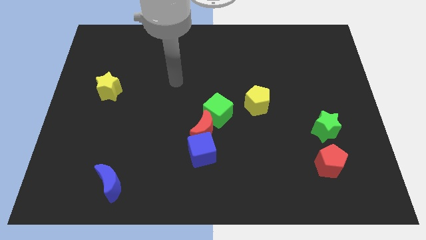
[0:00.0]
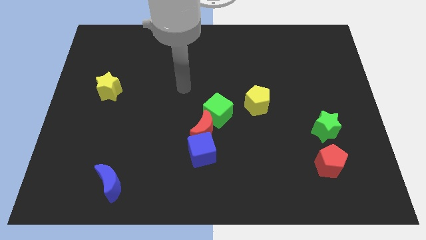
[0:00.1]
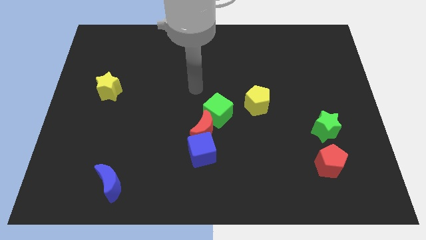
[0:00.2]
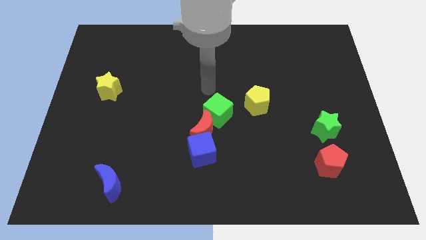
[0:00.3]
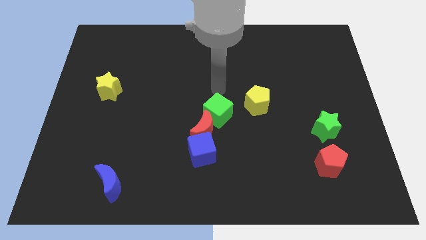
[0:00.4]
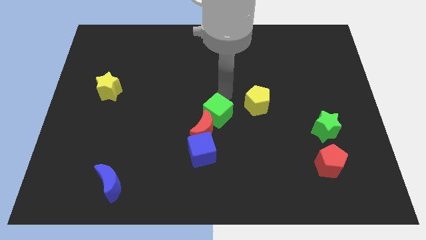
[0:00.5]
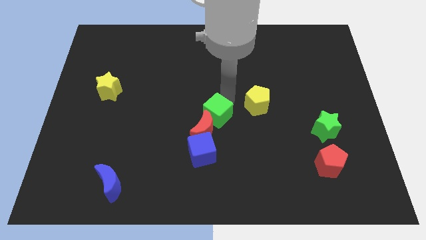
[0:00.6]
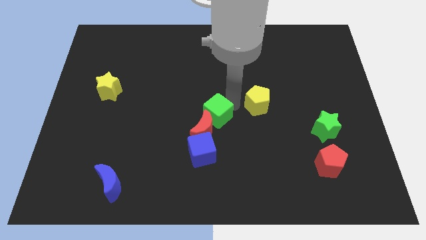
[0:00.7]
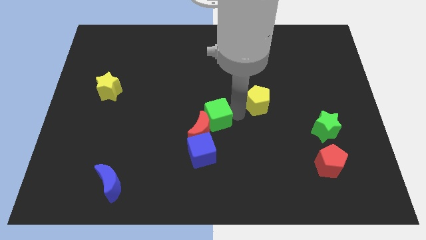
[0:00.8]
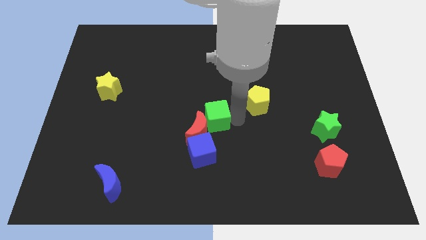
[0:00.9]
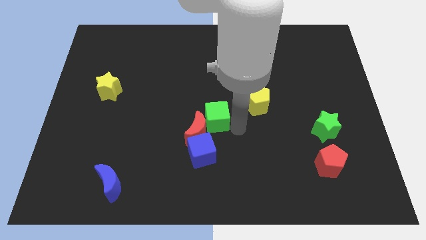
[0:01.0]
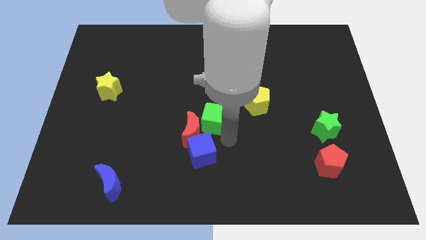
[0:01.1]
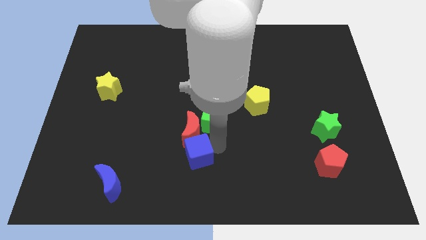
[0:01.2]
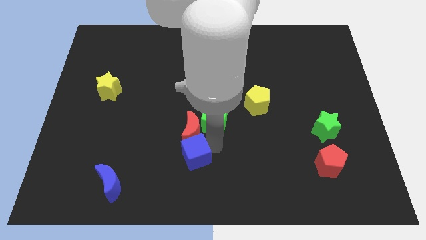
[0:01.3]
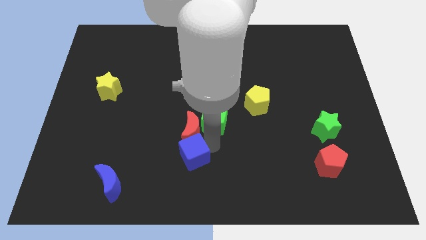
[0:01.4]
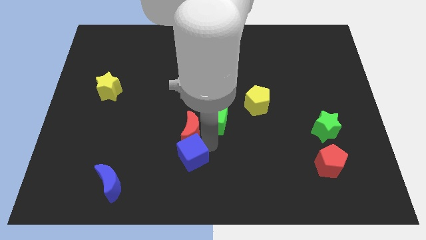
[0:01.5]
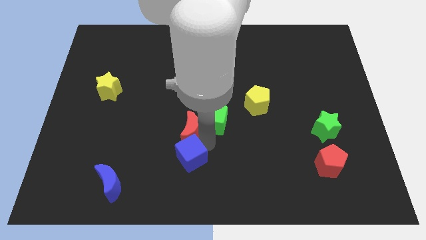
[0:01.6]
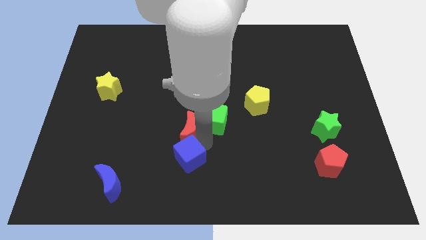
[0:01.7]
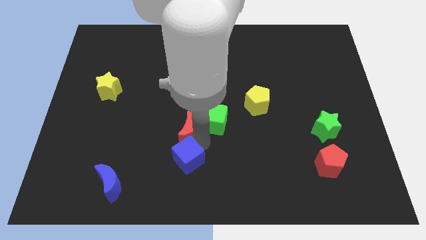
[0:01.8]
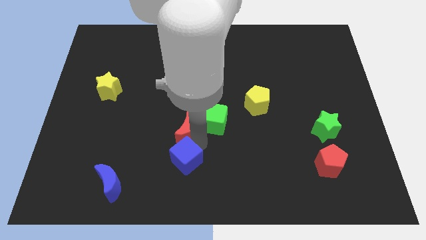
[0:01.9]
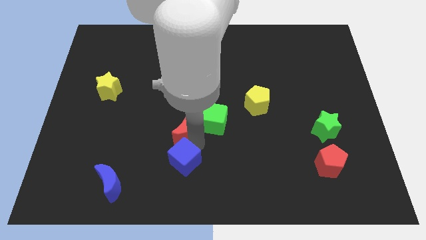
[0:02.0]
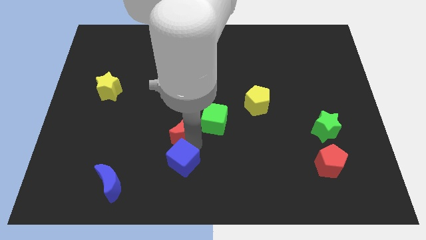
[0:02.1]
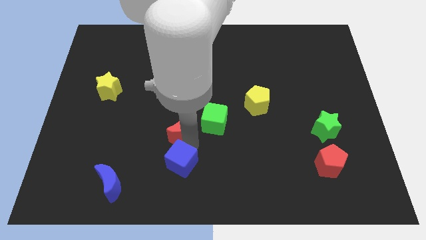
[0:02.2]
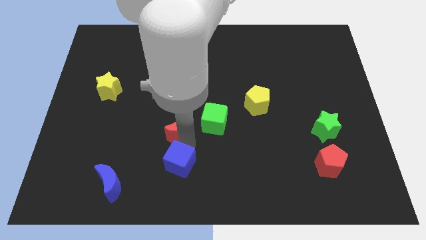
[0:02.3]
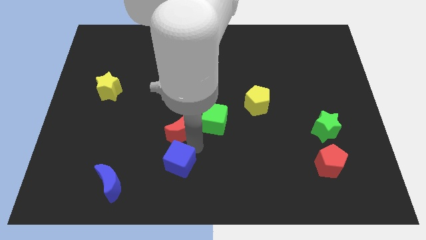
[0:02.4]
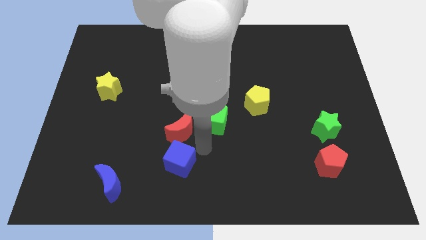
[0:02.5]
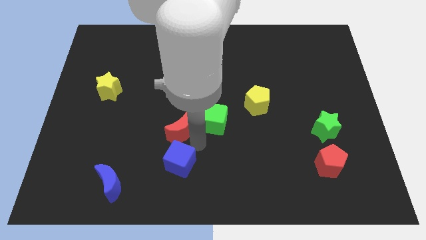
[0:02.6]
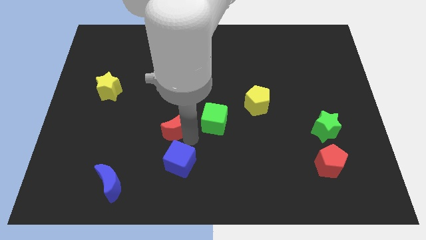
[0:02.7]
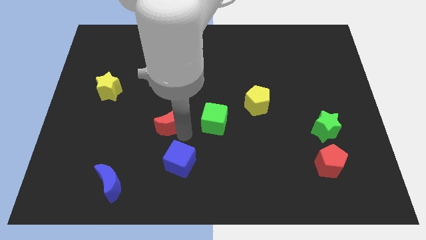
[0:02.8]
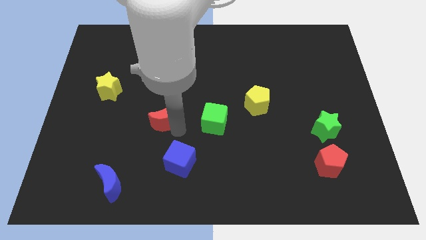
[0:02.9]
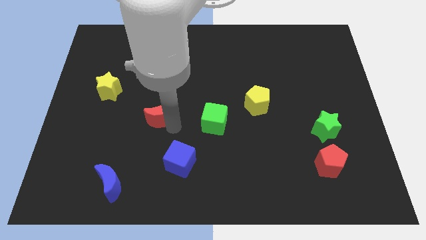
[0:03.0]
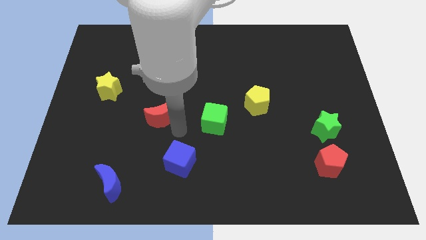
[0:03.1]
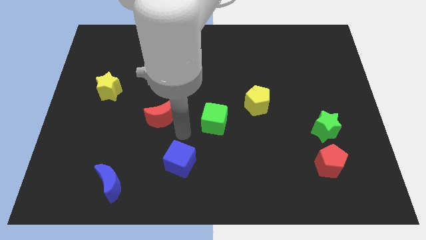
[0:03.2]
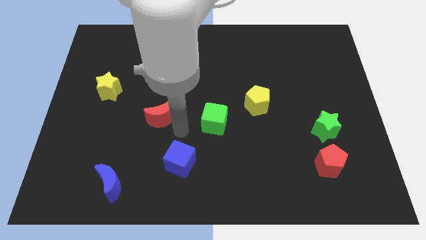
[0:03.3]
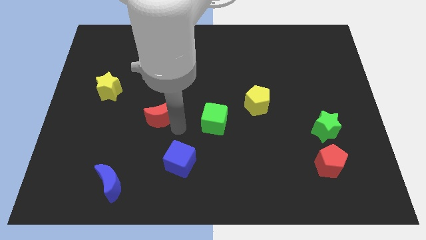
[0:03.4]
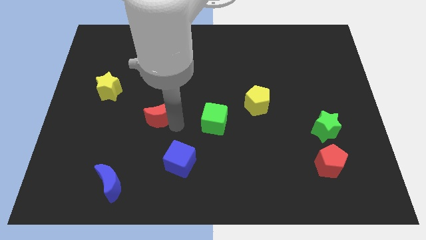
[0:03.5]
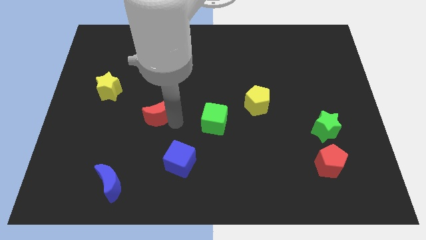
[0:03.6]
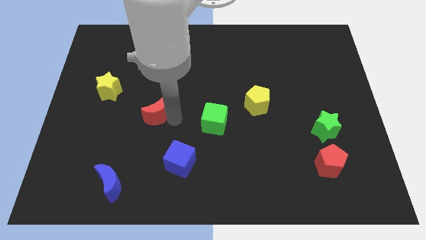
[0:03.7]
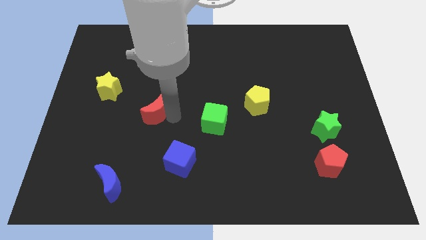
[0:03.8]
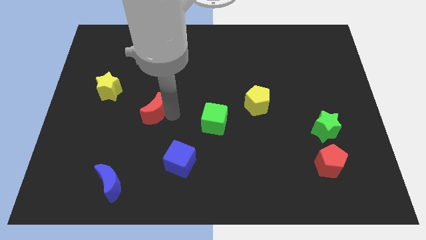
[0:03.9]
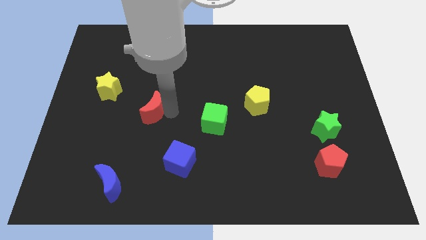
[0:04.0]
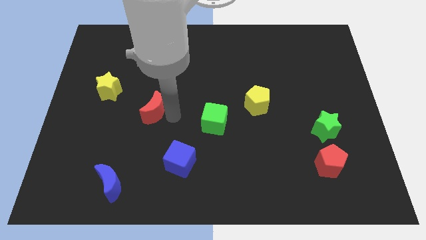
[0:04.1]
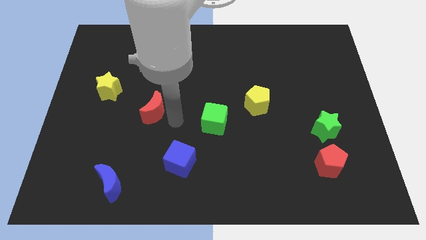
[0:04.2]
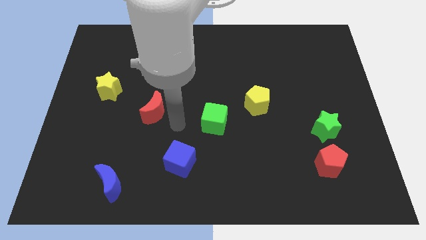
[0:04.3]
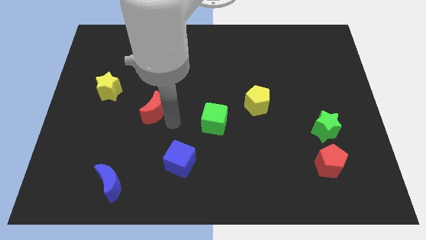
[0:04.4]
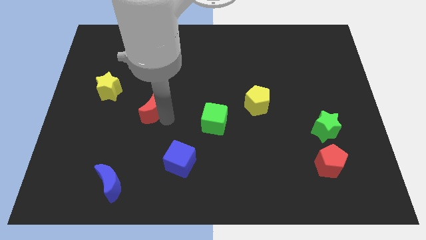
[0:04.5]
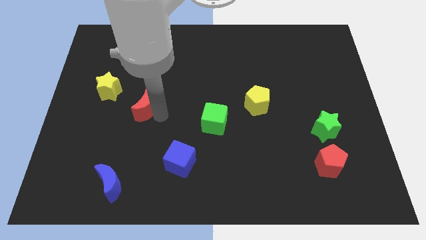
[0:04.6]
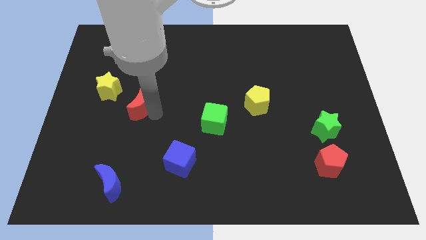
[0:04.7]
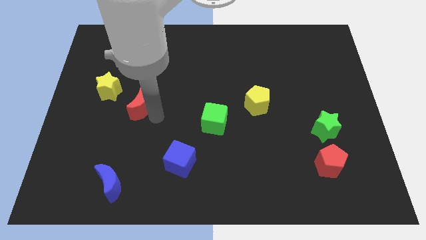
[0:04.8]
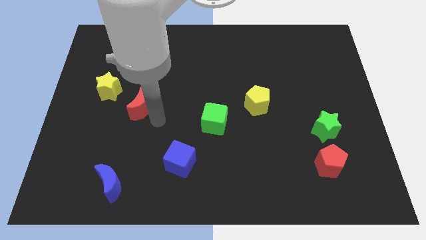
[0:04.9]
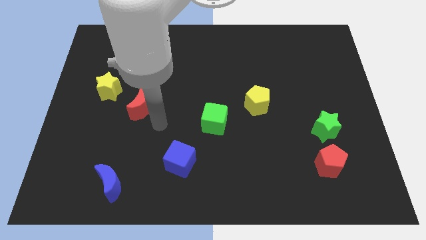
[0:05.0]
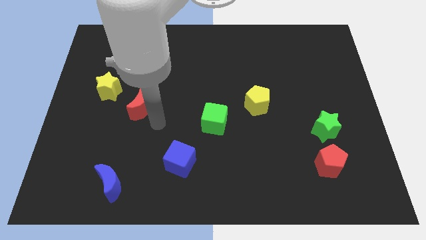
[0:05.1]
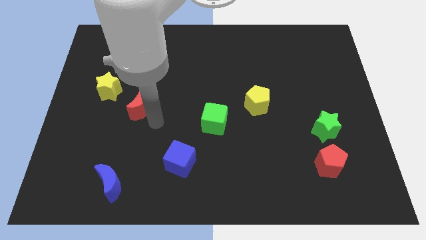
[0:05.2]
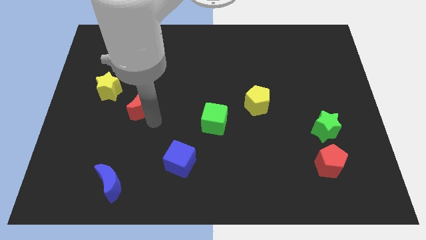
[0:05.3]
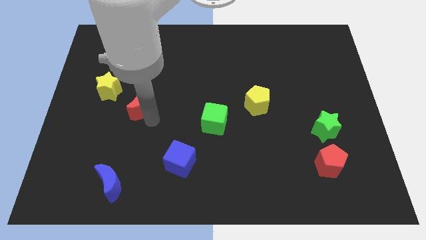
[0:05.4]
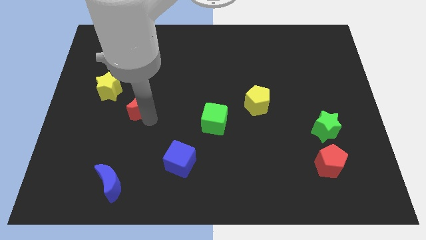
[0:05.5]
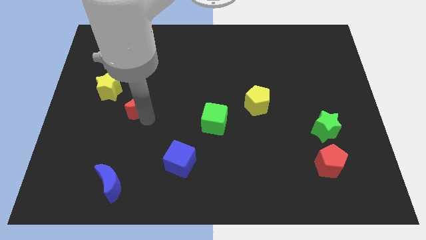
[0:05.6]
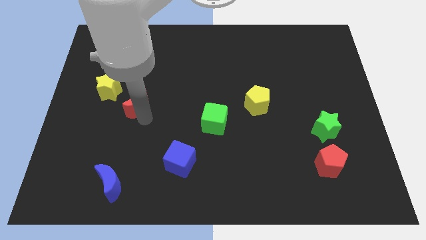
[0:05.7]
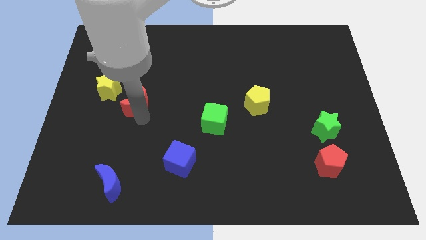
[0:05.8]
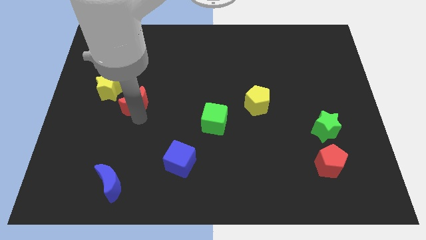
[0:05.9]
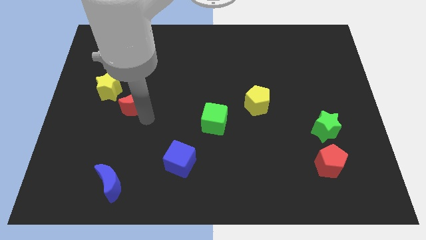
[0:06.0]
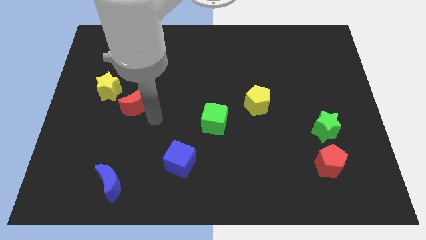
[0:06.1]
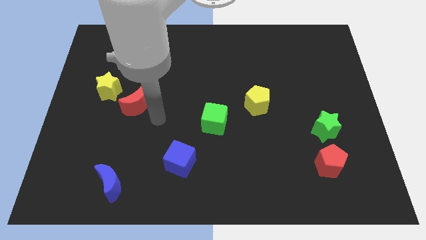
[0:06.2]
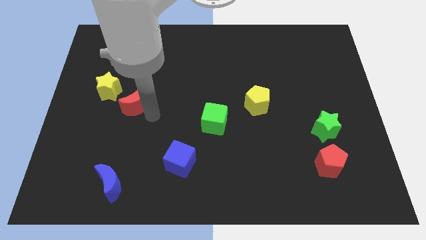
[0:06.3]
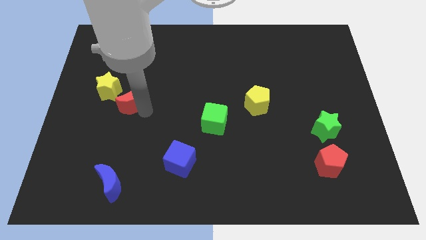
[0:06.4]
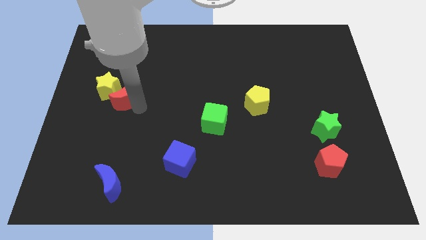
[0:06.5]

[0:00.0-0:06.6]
move the red moon close to the yellow star
